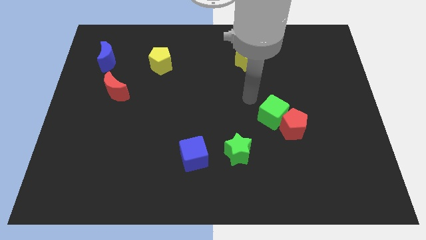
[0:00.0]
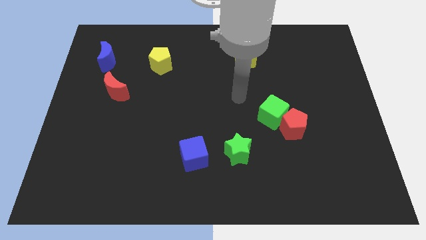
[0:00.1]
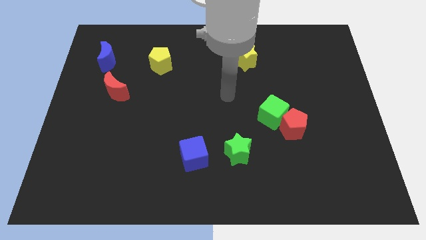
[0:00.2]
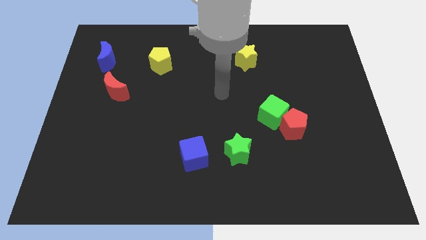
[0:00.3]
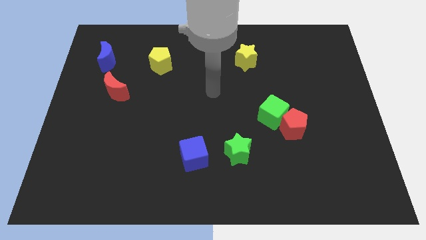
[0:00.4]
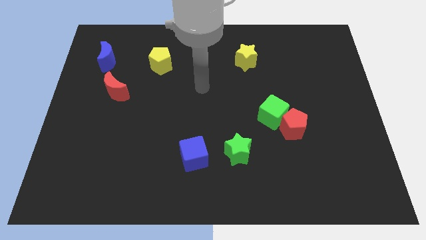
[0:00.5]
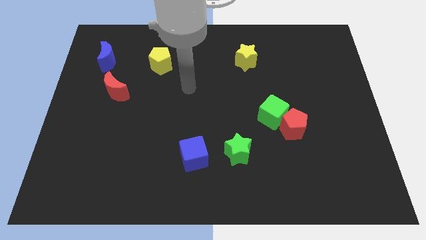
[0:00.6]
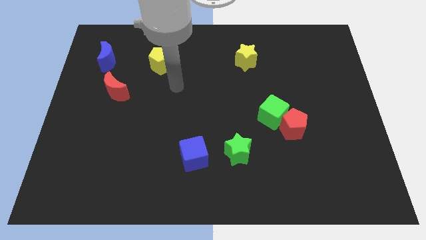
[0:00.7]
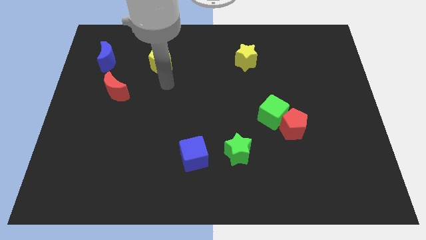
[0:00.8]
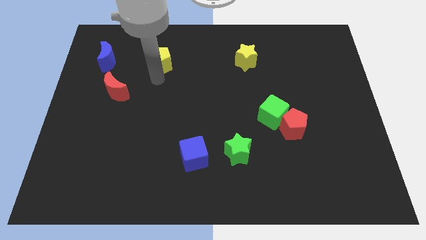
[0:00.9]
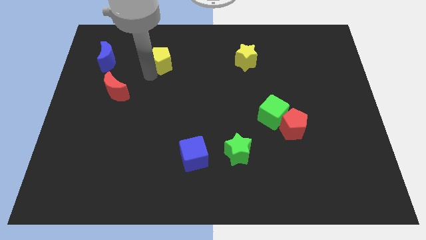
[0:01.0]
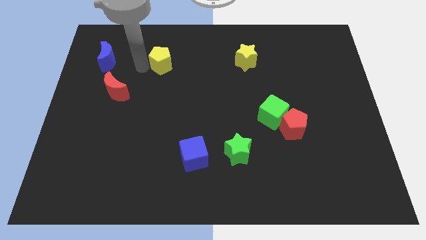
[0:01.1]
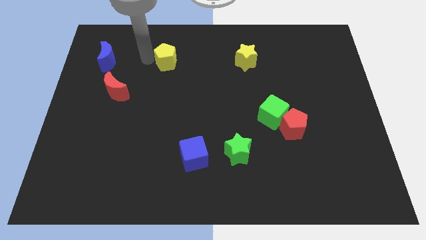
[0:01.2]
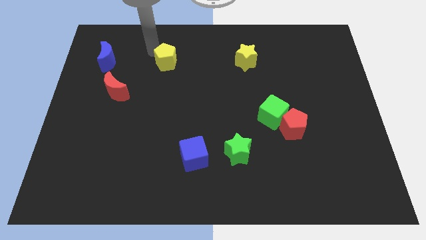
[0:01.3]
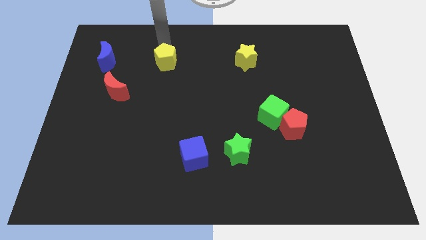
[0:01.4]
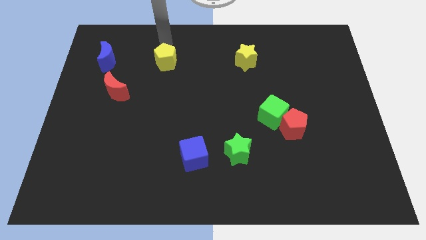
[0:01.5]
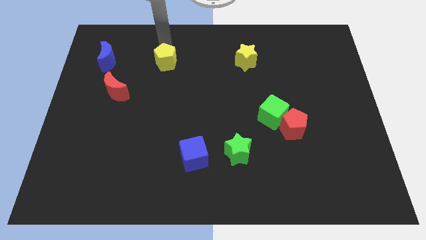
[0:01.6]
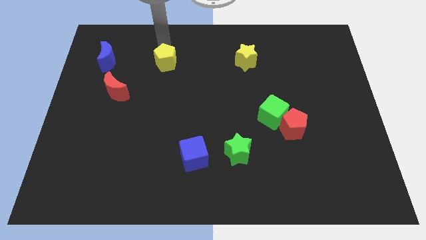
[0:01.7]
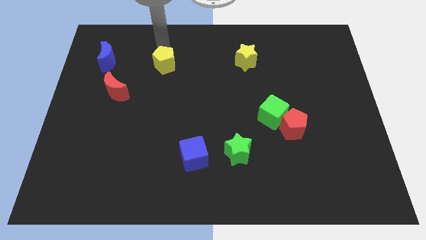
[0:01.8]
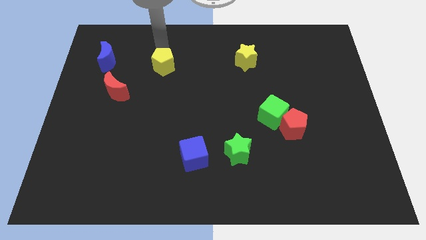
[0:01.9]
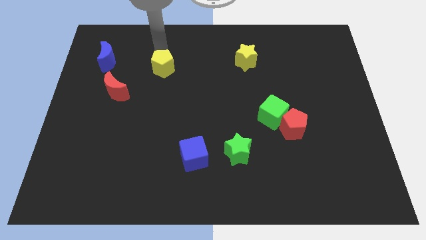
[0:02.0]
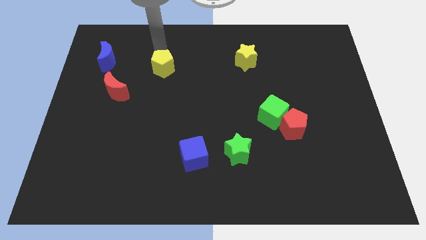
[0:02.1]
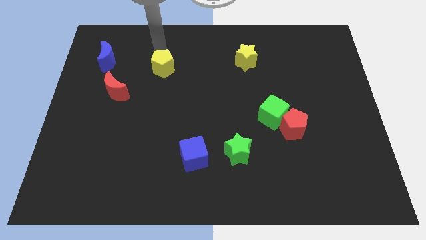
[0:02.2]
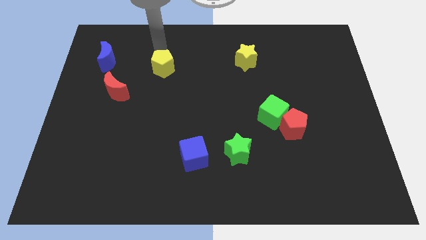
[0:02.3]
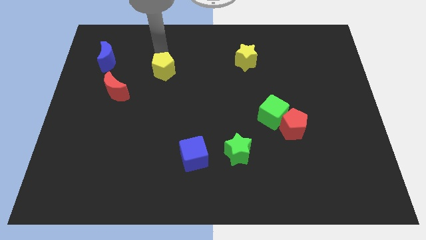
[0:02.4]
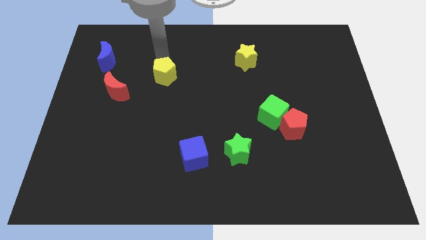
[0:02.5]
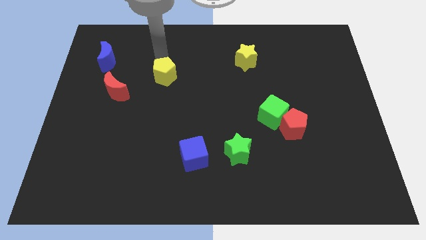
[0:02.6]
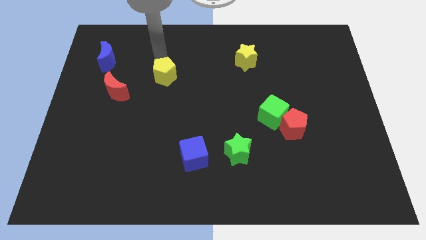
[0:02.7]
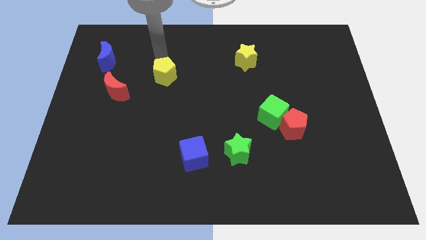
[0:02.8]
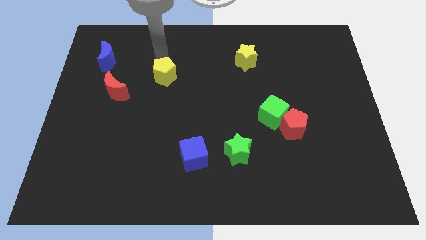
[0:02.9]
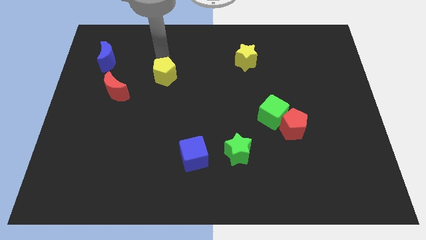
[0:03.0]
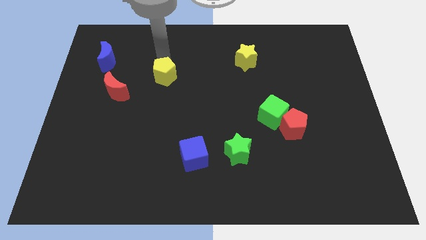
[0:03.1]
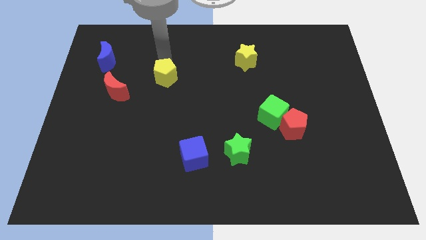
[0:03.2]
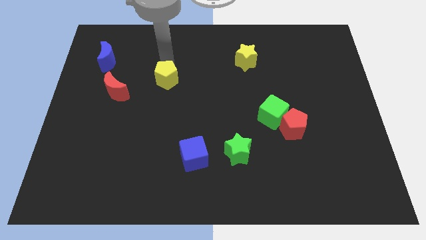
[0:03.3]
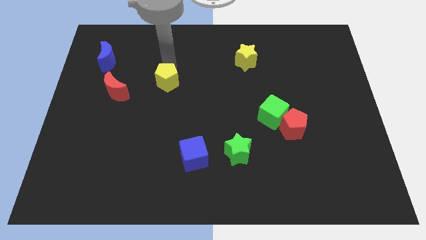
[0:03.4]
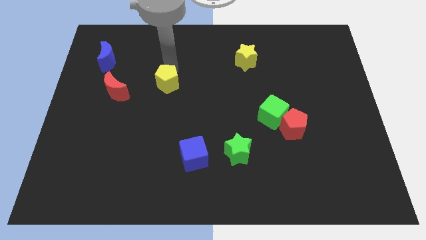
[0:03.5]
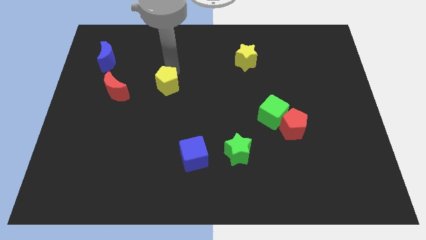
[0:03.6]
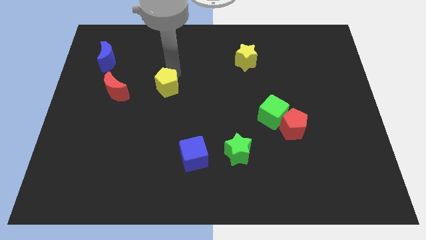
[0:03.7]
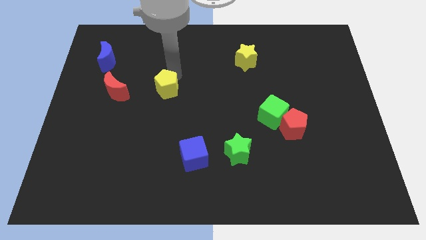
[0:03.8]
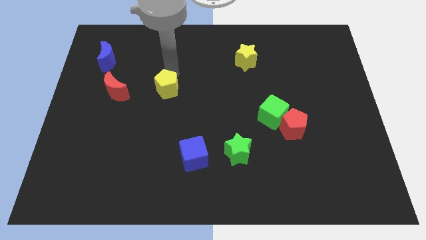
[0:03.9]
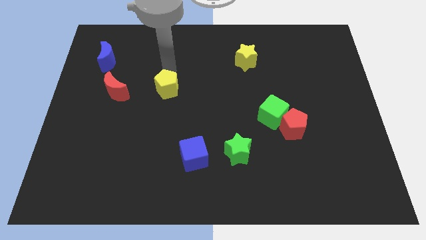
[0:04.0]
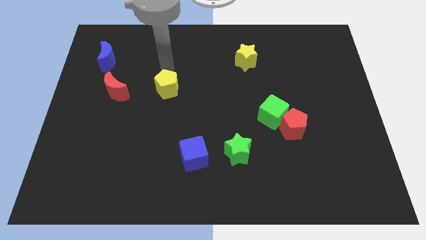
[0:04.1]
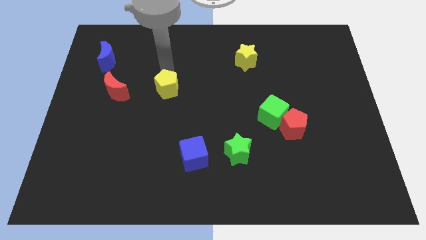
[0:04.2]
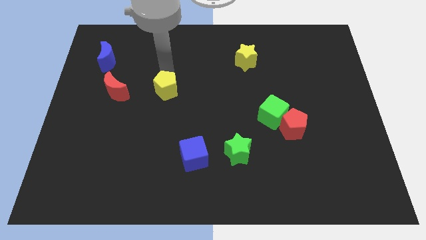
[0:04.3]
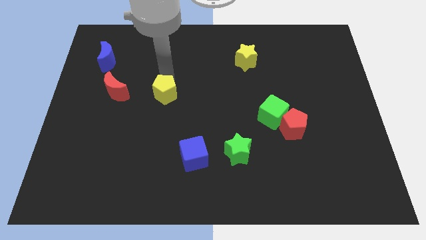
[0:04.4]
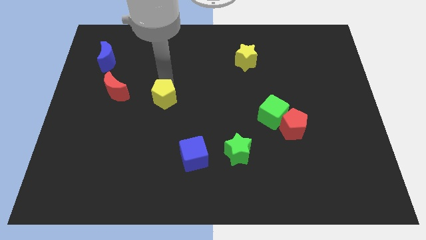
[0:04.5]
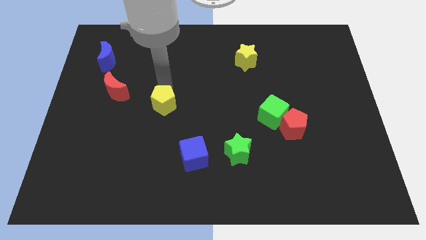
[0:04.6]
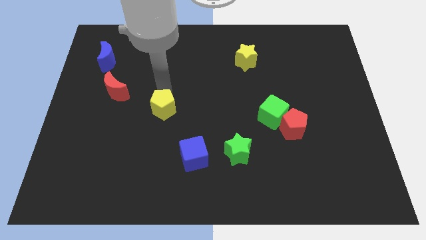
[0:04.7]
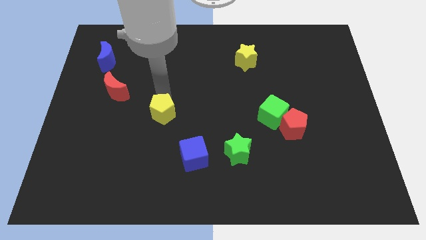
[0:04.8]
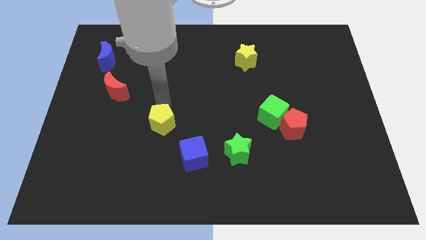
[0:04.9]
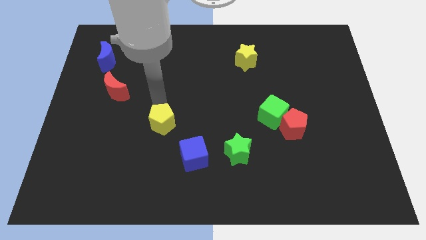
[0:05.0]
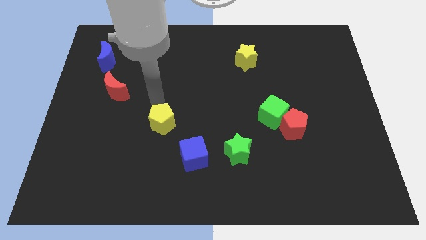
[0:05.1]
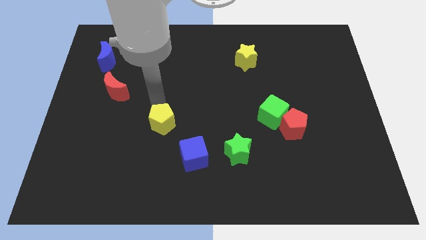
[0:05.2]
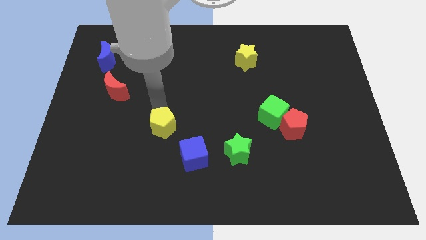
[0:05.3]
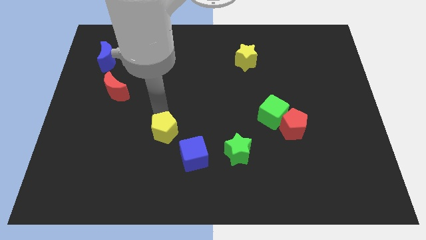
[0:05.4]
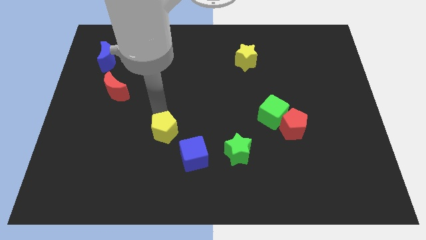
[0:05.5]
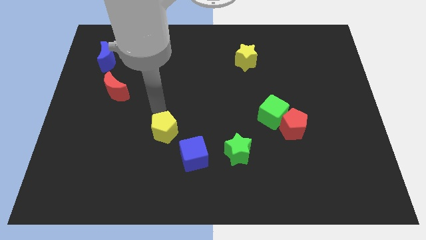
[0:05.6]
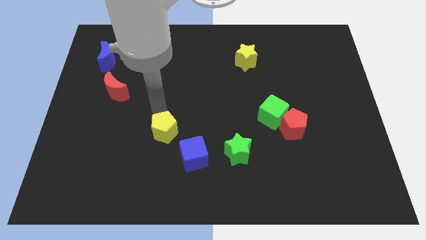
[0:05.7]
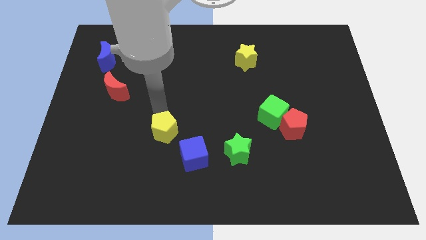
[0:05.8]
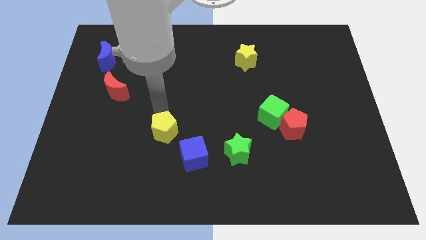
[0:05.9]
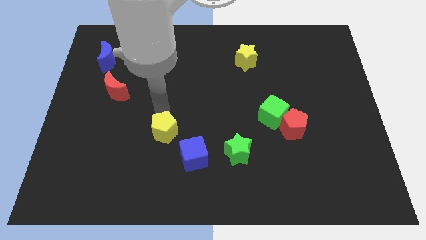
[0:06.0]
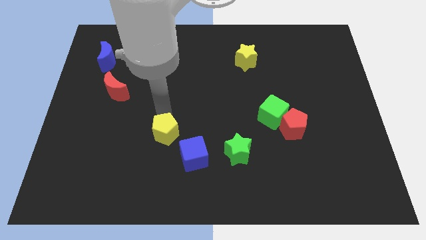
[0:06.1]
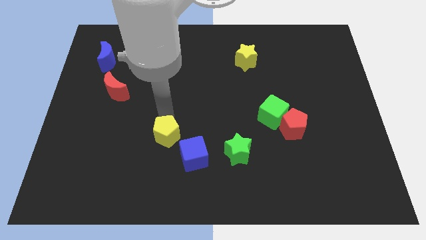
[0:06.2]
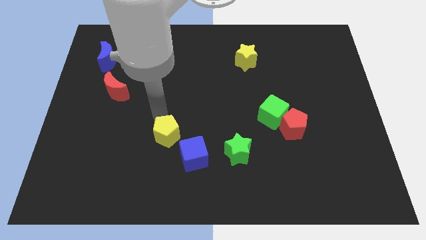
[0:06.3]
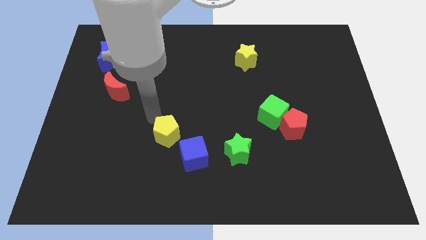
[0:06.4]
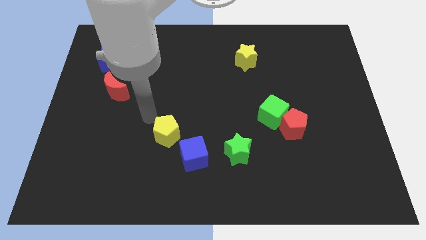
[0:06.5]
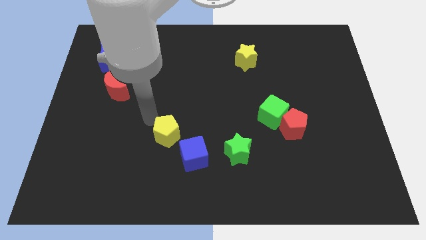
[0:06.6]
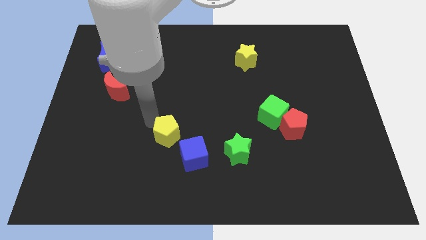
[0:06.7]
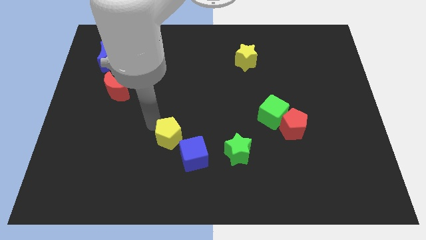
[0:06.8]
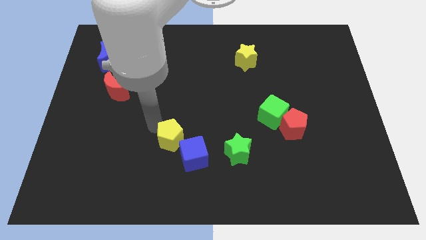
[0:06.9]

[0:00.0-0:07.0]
move the yellow pentagon just left of the green star

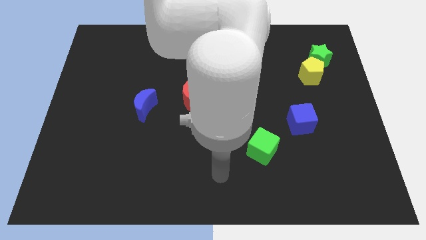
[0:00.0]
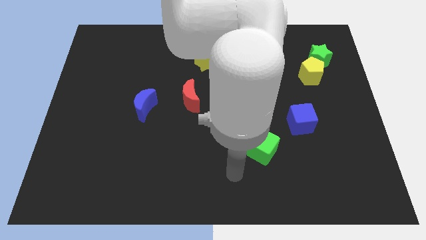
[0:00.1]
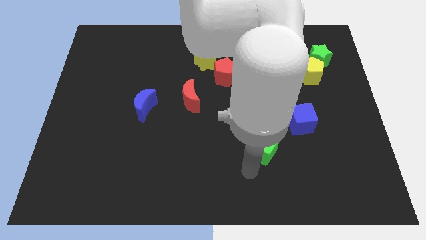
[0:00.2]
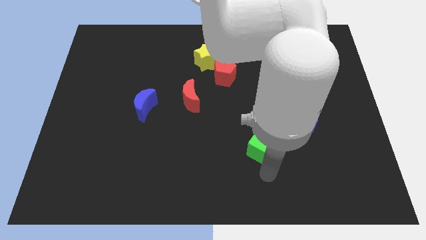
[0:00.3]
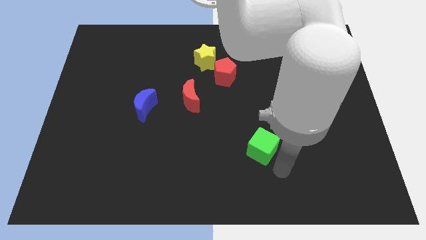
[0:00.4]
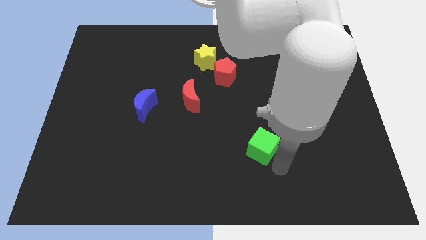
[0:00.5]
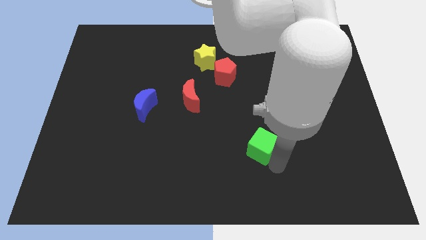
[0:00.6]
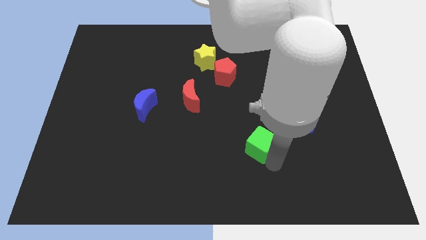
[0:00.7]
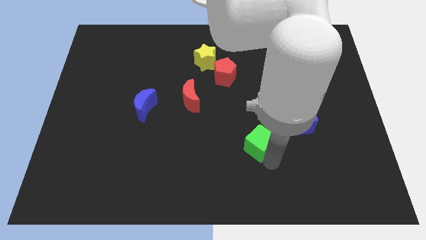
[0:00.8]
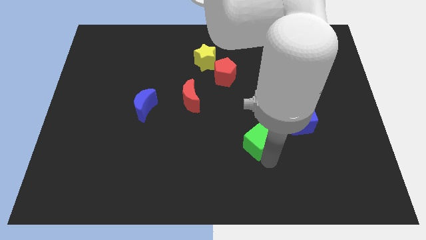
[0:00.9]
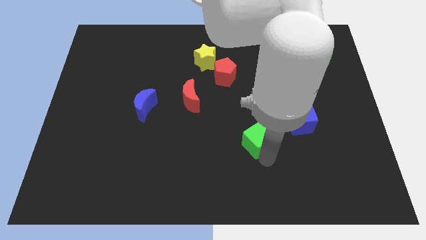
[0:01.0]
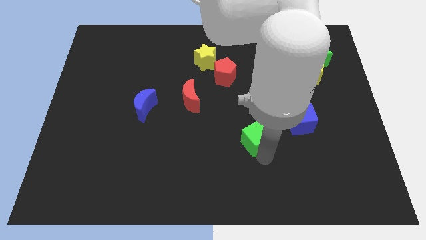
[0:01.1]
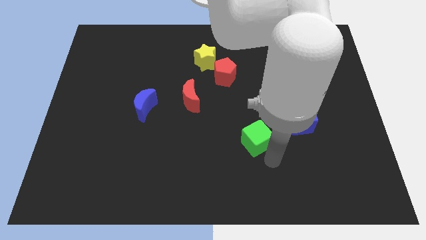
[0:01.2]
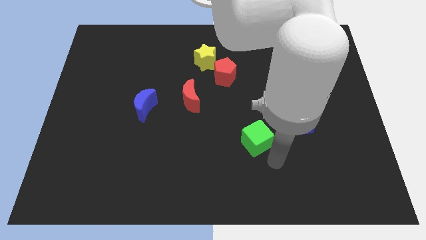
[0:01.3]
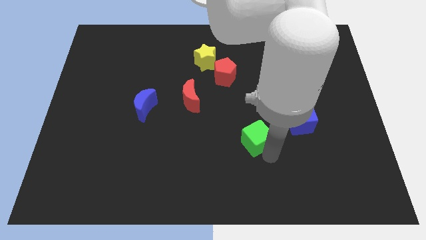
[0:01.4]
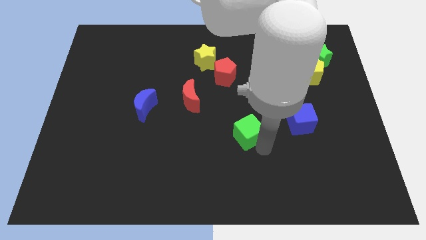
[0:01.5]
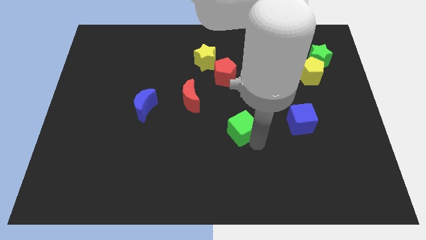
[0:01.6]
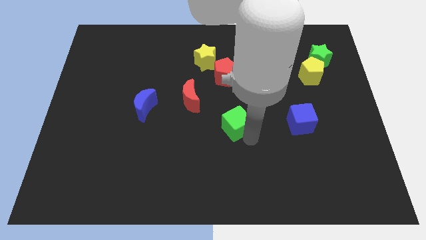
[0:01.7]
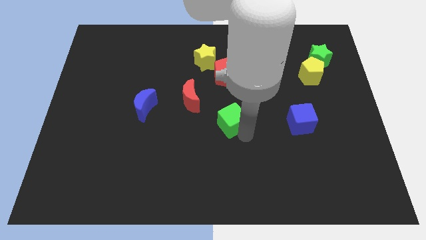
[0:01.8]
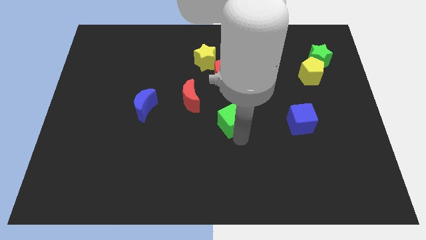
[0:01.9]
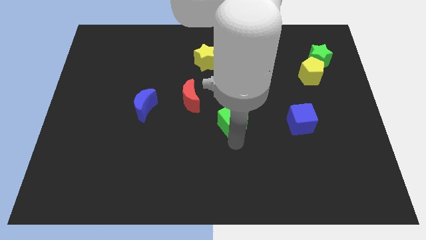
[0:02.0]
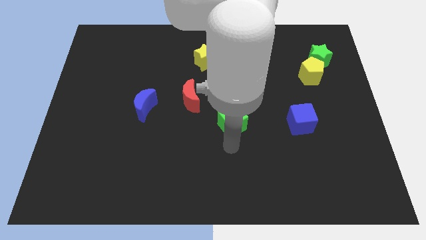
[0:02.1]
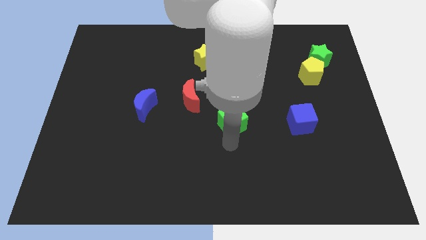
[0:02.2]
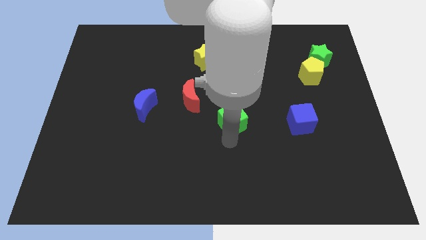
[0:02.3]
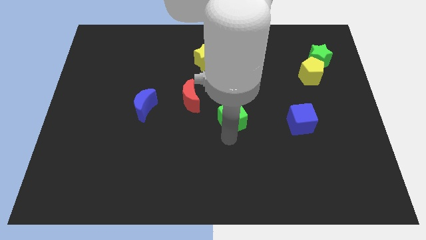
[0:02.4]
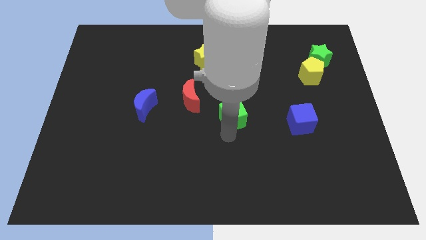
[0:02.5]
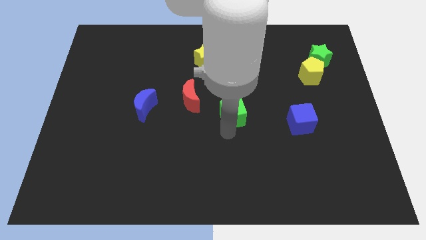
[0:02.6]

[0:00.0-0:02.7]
move the green cube right of the red moon
